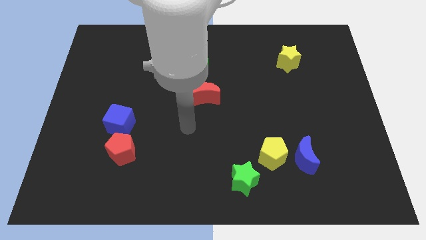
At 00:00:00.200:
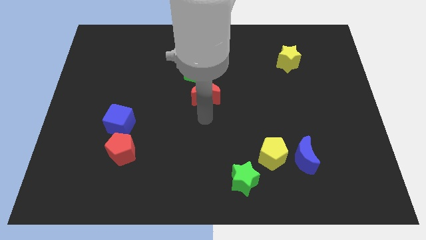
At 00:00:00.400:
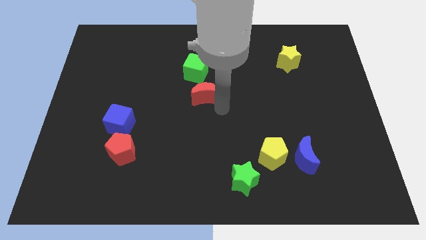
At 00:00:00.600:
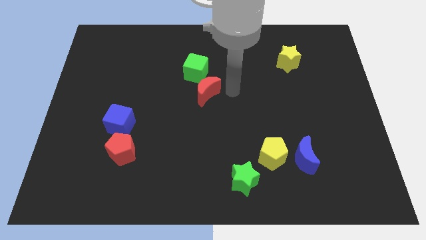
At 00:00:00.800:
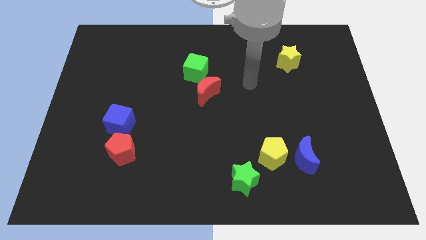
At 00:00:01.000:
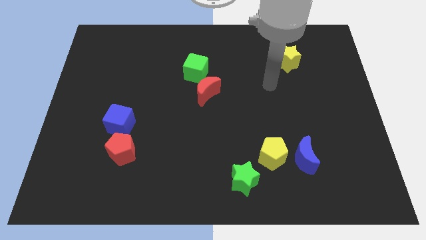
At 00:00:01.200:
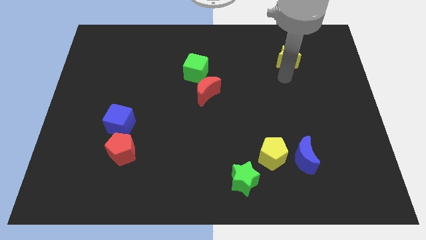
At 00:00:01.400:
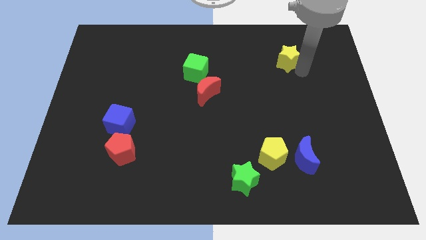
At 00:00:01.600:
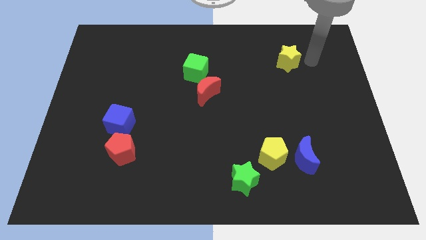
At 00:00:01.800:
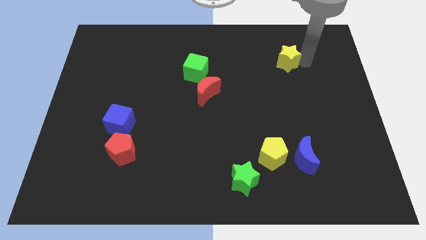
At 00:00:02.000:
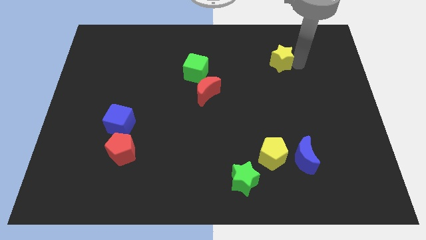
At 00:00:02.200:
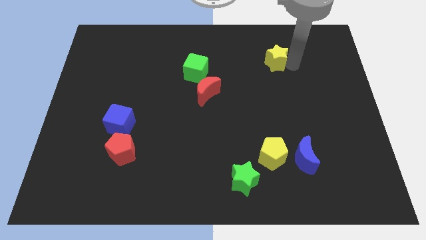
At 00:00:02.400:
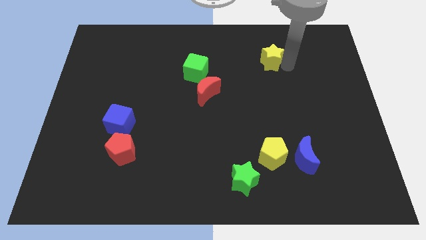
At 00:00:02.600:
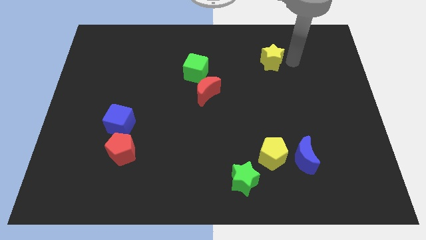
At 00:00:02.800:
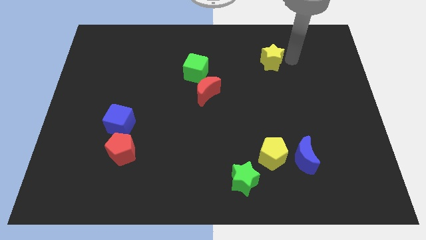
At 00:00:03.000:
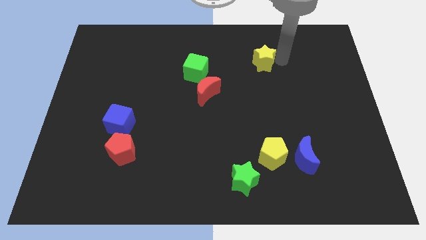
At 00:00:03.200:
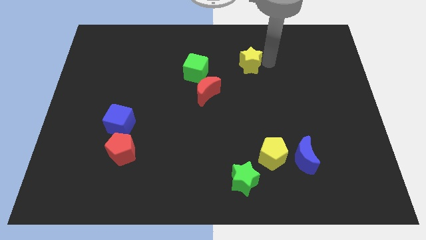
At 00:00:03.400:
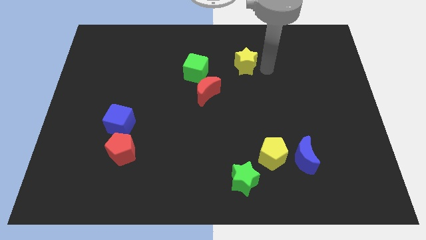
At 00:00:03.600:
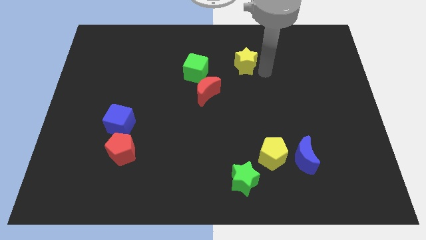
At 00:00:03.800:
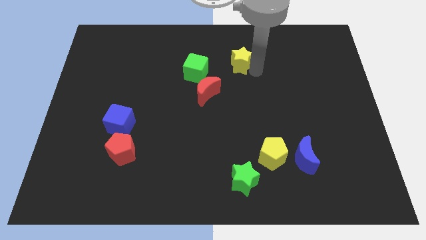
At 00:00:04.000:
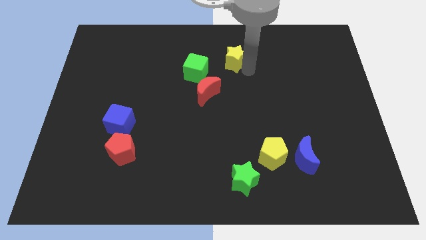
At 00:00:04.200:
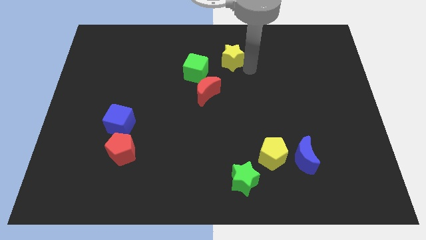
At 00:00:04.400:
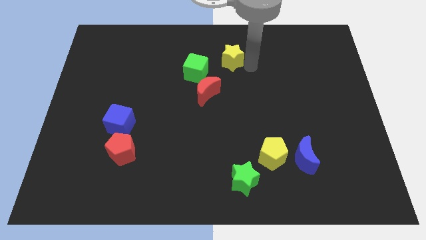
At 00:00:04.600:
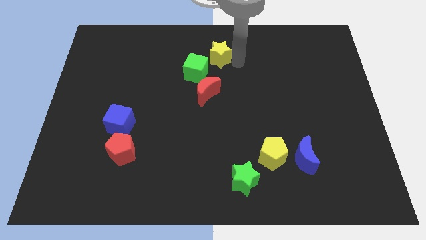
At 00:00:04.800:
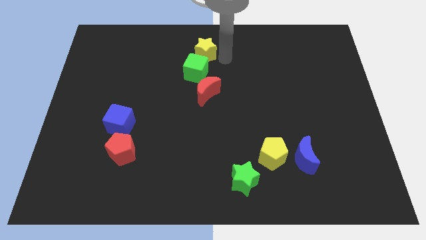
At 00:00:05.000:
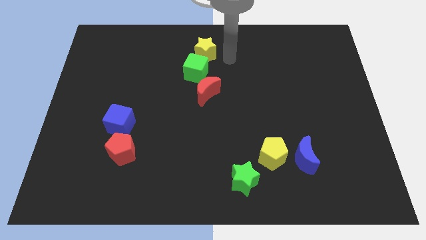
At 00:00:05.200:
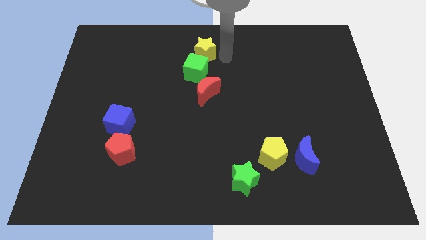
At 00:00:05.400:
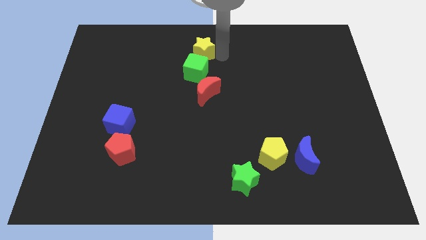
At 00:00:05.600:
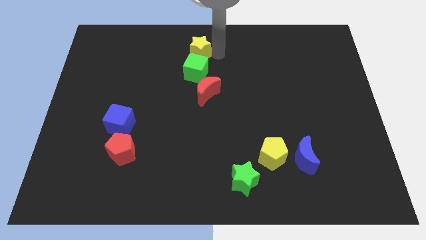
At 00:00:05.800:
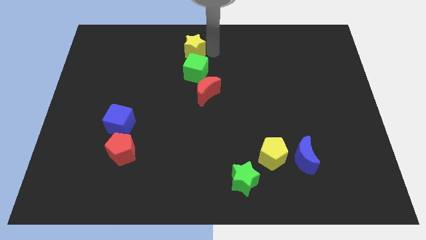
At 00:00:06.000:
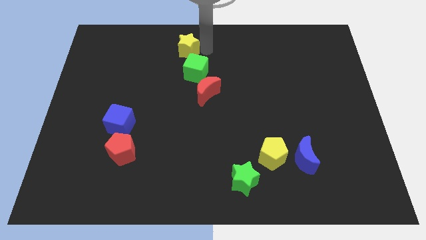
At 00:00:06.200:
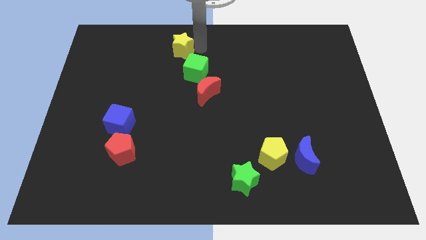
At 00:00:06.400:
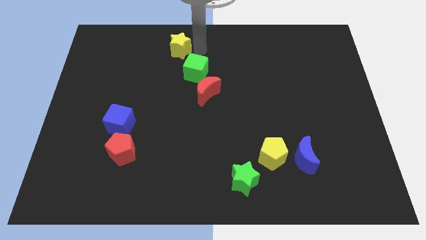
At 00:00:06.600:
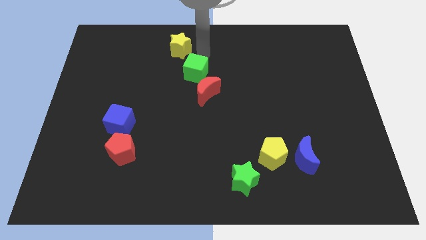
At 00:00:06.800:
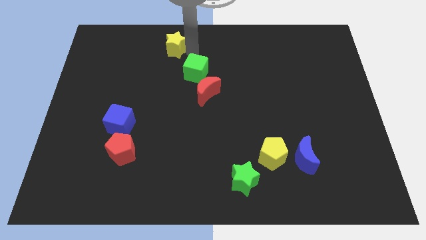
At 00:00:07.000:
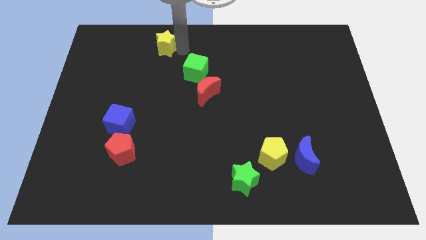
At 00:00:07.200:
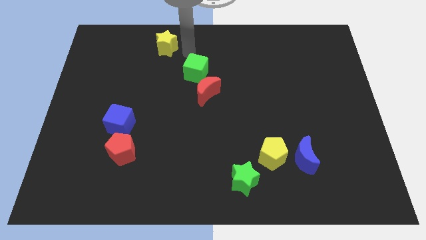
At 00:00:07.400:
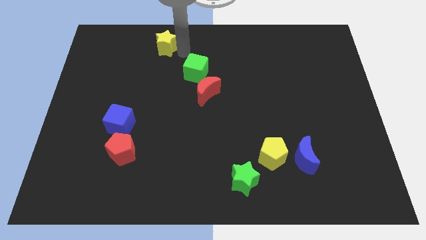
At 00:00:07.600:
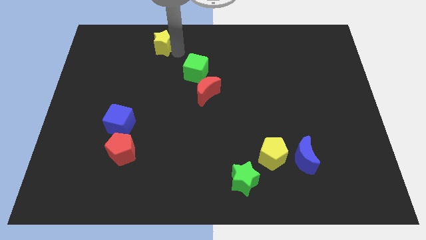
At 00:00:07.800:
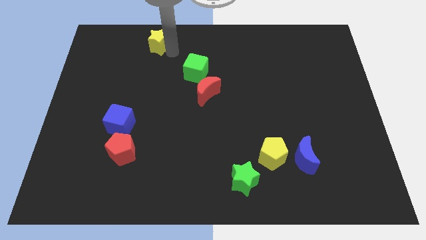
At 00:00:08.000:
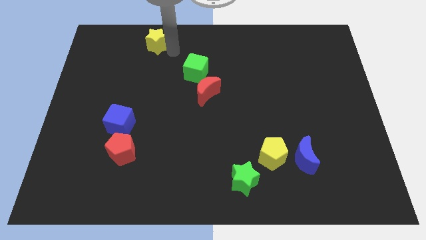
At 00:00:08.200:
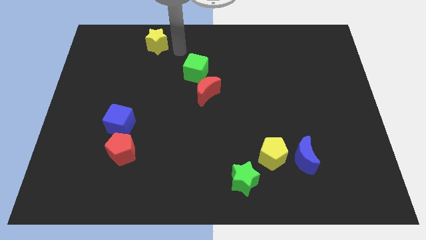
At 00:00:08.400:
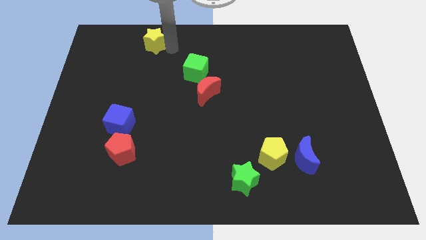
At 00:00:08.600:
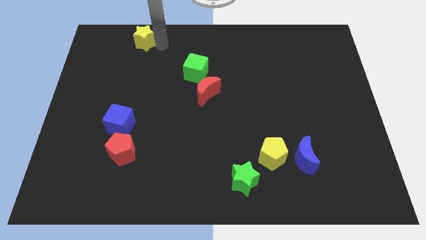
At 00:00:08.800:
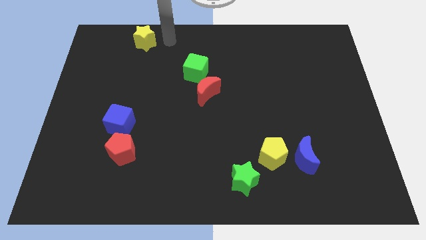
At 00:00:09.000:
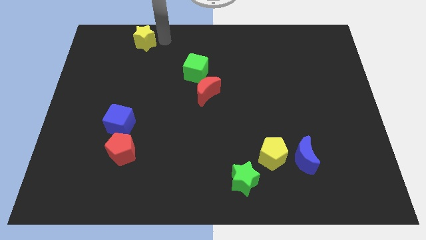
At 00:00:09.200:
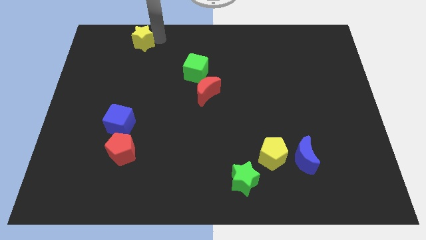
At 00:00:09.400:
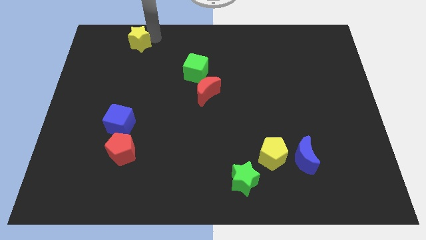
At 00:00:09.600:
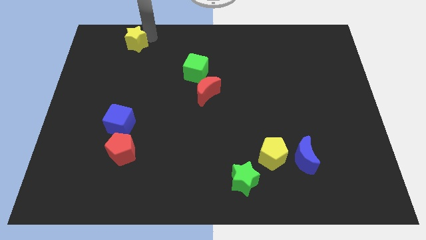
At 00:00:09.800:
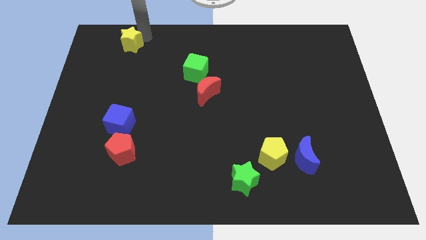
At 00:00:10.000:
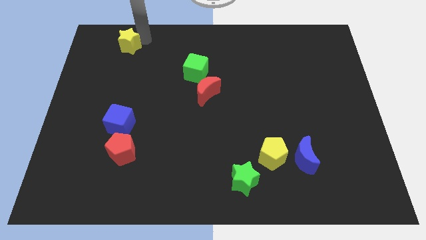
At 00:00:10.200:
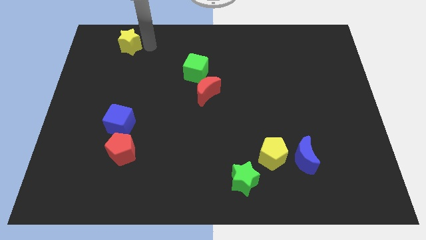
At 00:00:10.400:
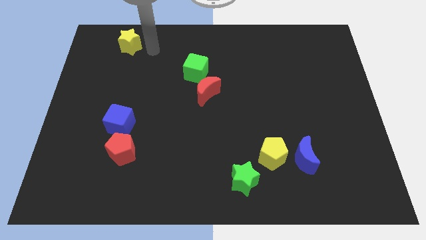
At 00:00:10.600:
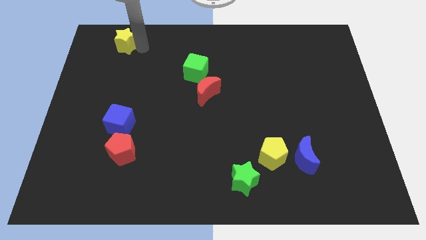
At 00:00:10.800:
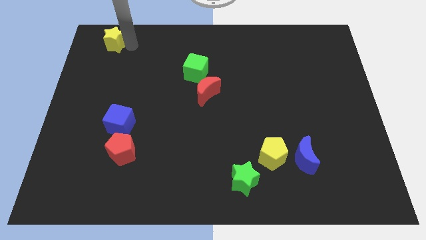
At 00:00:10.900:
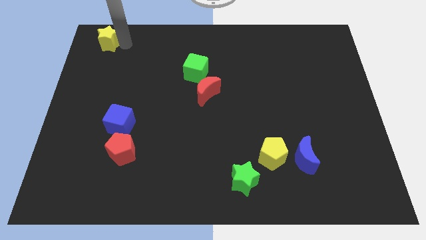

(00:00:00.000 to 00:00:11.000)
push the yellow star to the top left of the board
